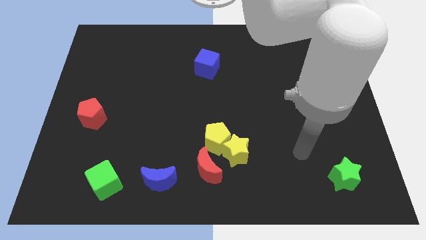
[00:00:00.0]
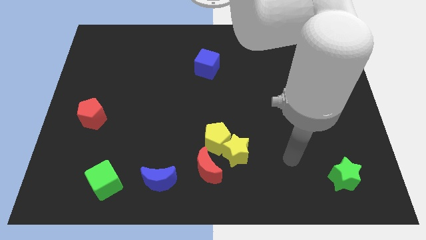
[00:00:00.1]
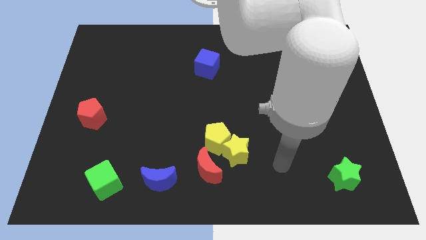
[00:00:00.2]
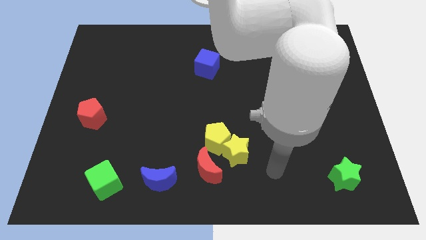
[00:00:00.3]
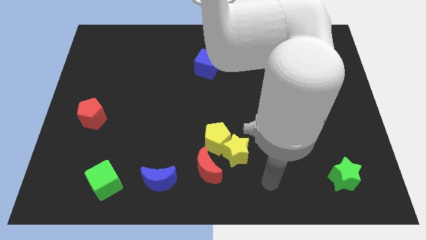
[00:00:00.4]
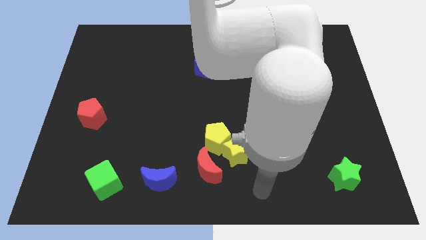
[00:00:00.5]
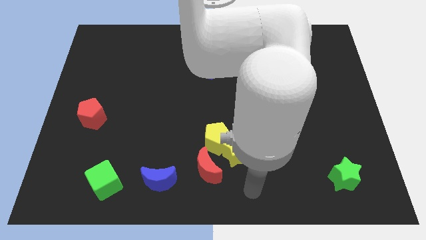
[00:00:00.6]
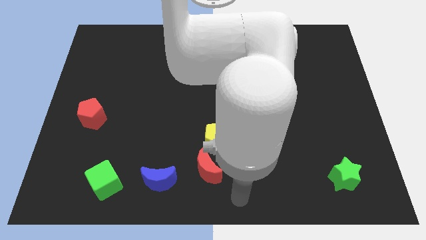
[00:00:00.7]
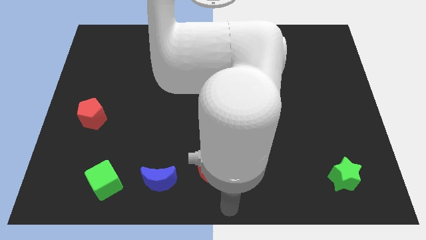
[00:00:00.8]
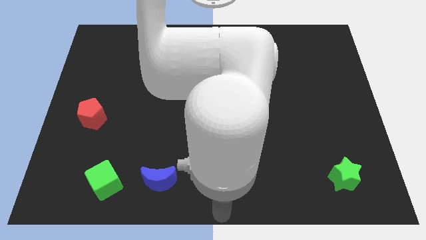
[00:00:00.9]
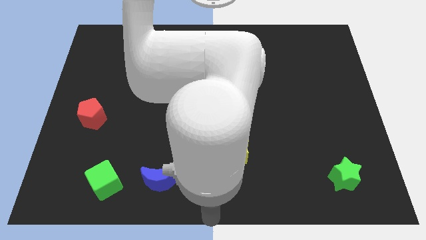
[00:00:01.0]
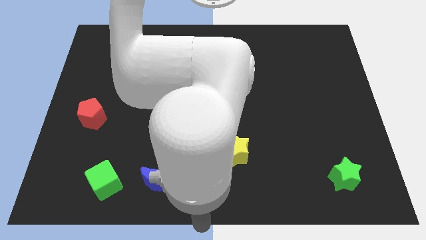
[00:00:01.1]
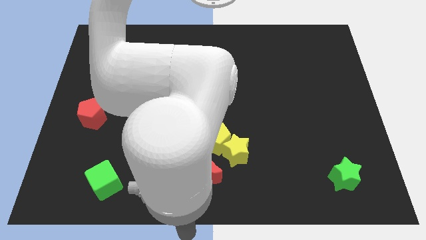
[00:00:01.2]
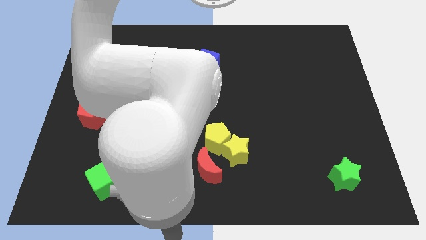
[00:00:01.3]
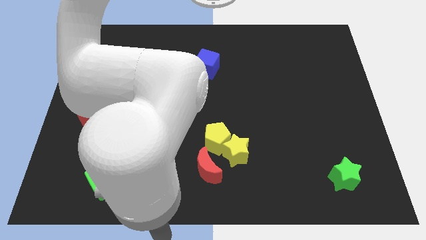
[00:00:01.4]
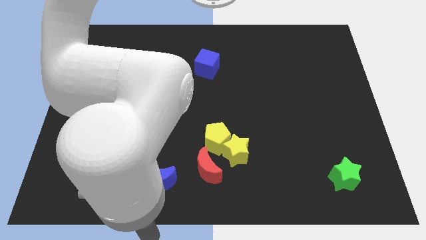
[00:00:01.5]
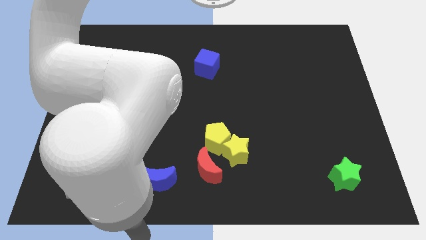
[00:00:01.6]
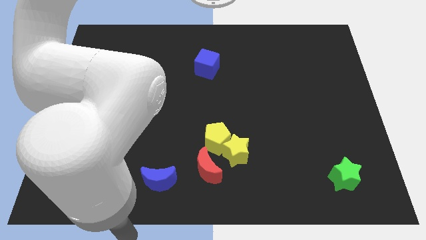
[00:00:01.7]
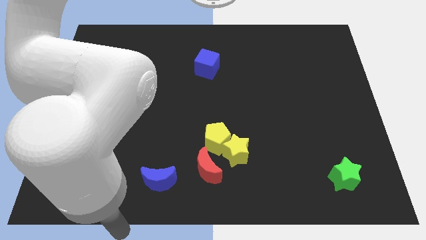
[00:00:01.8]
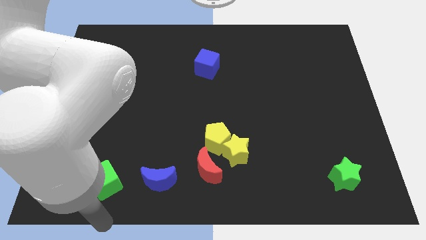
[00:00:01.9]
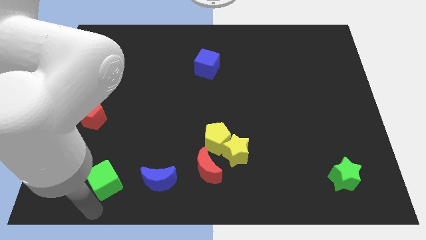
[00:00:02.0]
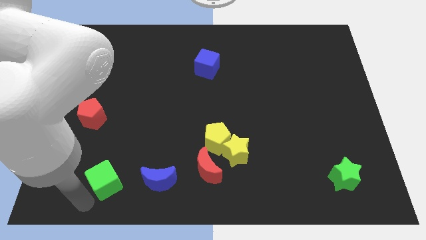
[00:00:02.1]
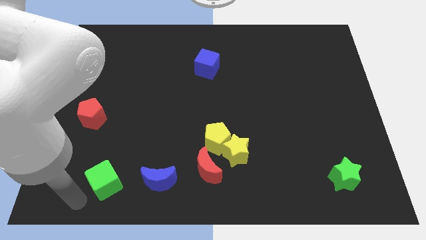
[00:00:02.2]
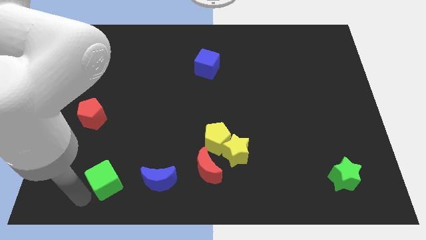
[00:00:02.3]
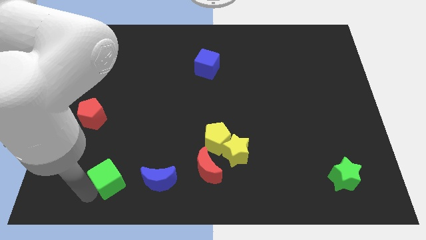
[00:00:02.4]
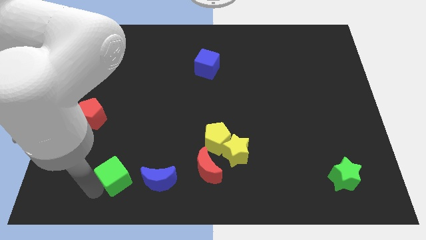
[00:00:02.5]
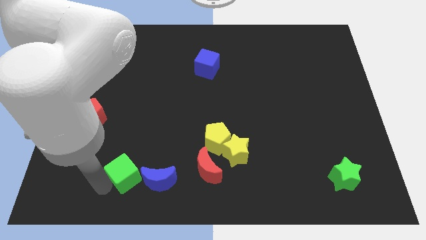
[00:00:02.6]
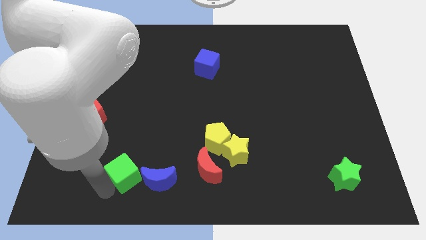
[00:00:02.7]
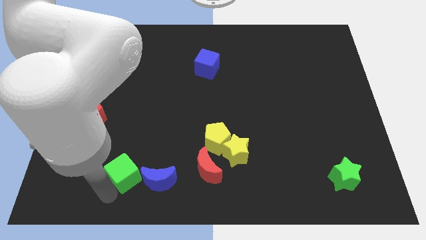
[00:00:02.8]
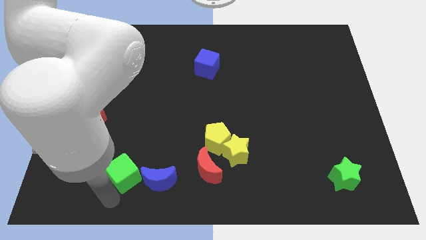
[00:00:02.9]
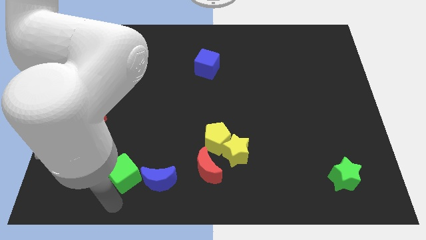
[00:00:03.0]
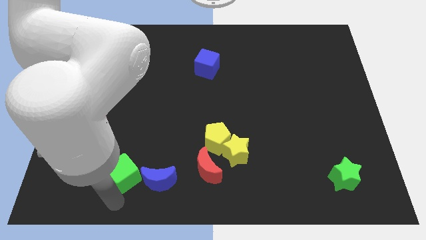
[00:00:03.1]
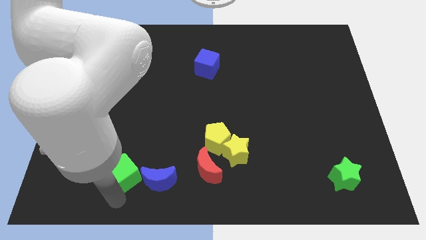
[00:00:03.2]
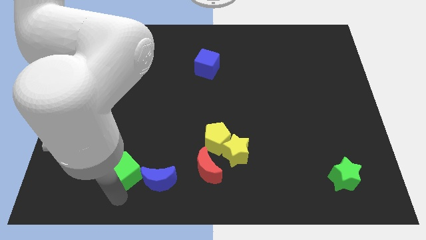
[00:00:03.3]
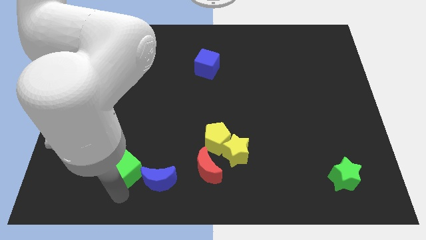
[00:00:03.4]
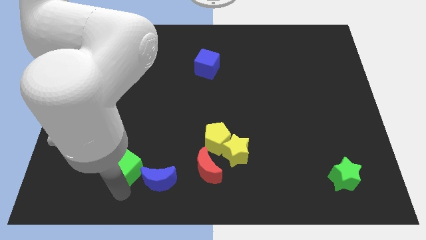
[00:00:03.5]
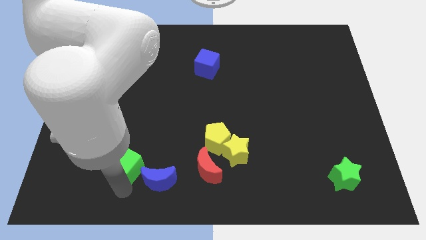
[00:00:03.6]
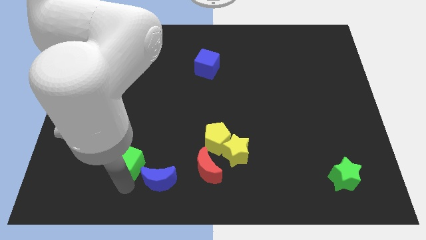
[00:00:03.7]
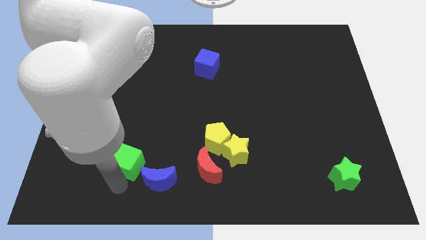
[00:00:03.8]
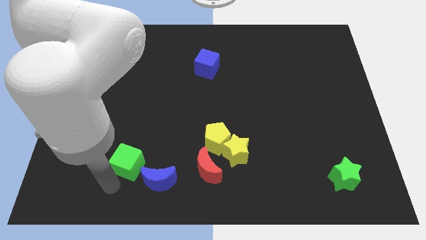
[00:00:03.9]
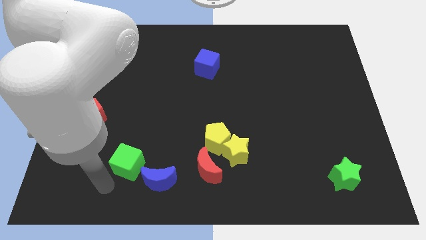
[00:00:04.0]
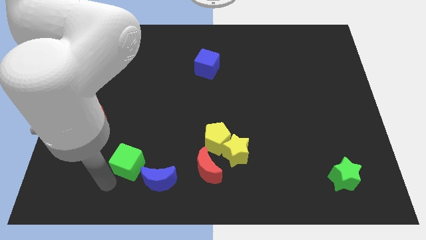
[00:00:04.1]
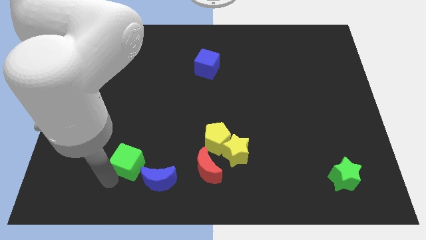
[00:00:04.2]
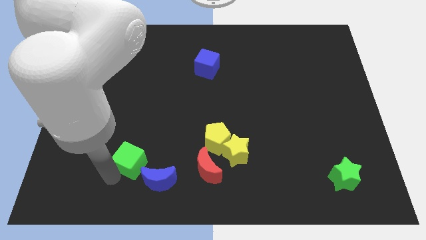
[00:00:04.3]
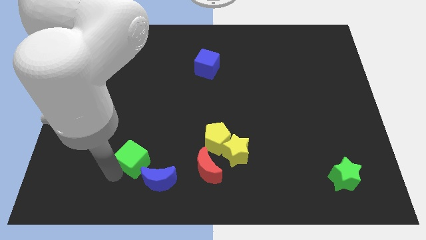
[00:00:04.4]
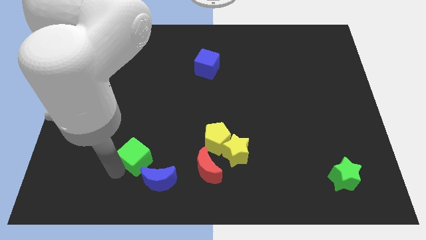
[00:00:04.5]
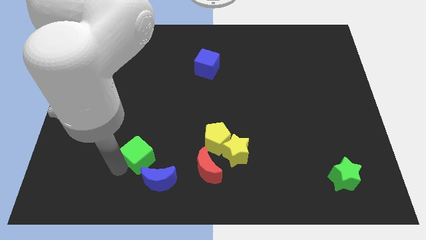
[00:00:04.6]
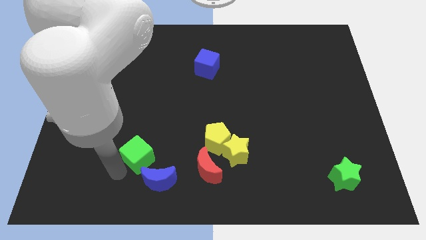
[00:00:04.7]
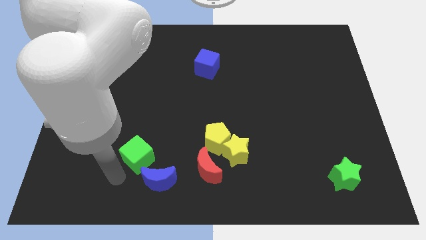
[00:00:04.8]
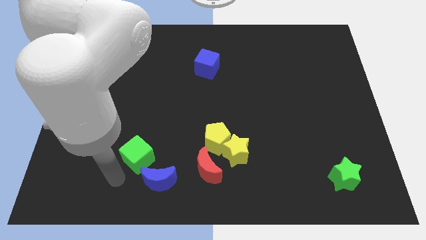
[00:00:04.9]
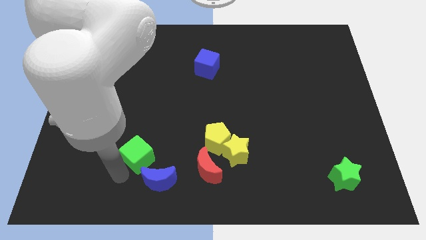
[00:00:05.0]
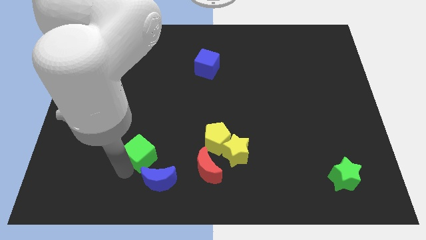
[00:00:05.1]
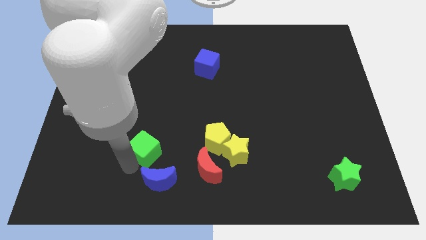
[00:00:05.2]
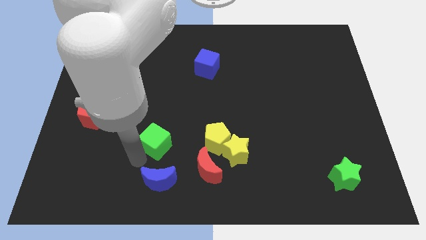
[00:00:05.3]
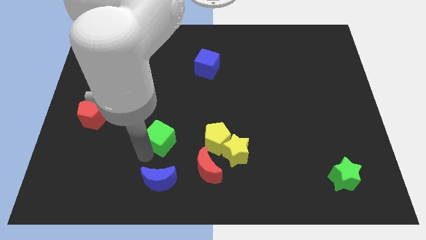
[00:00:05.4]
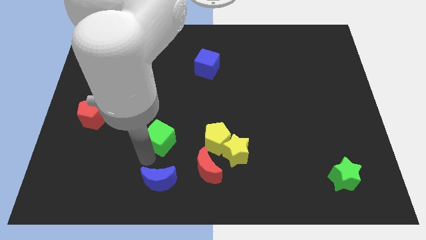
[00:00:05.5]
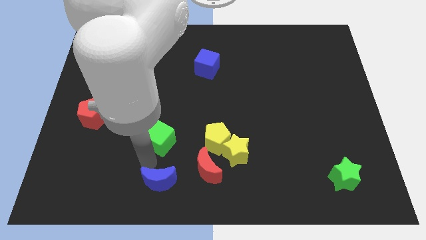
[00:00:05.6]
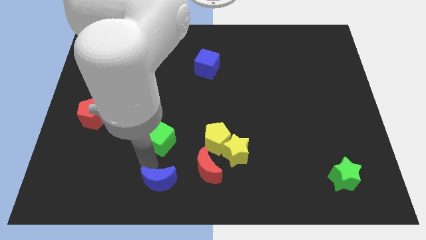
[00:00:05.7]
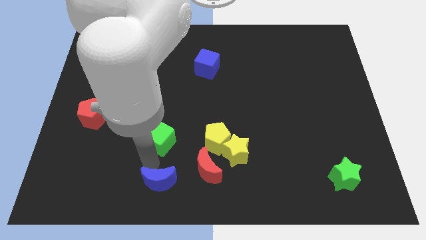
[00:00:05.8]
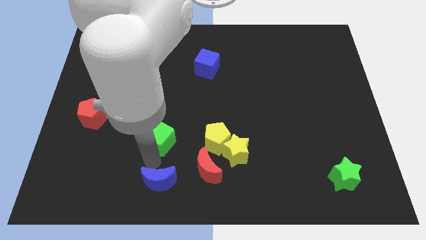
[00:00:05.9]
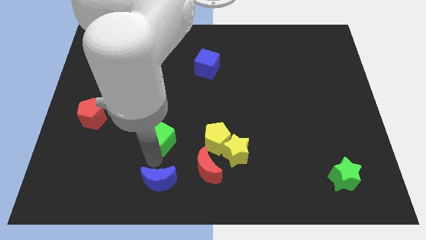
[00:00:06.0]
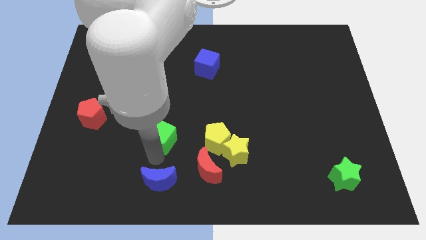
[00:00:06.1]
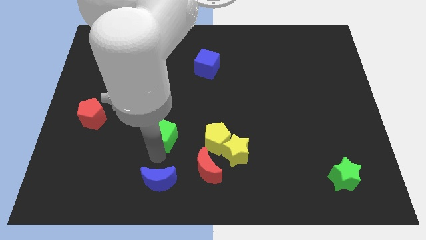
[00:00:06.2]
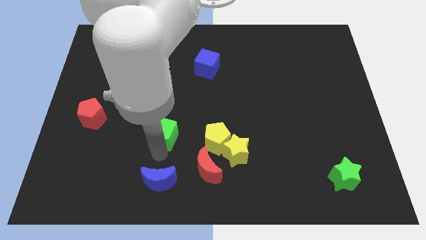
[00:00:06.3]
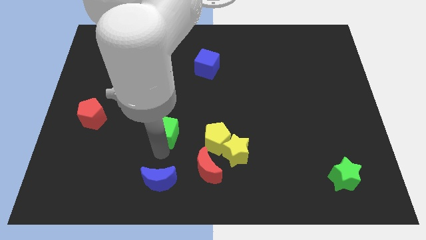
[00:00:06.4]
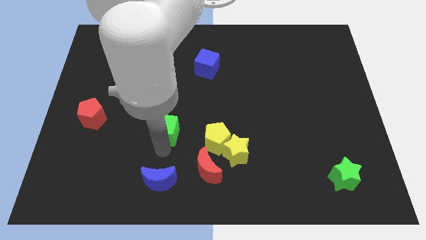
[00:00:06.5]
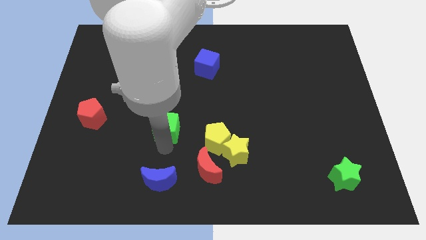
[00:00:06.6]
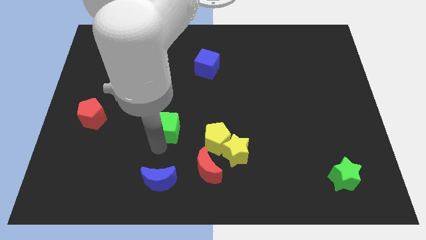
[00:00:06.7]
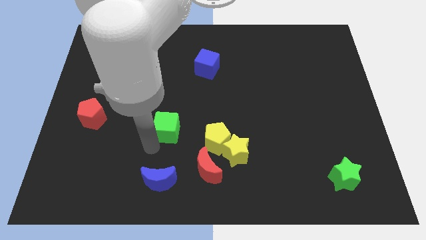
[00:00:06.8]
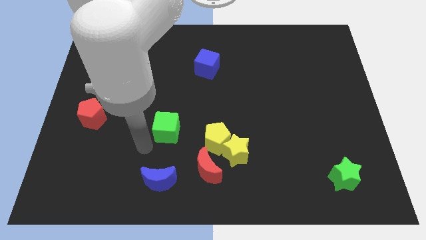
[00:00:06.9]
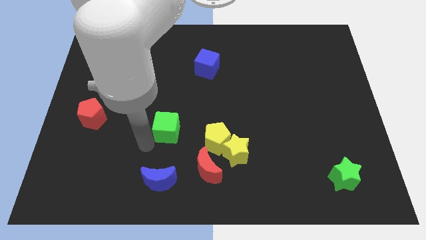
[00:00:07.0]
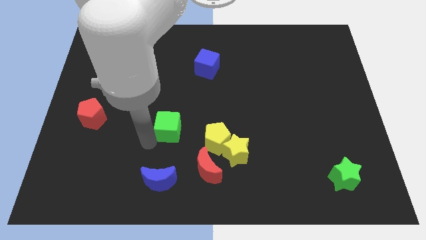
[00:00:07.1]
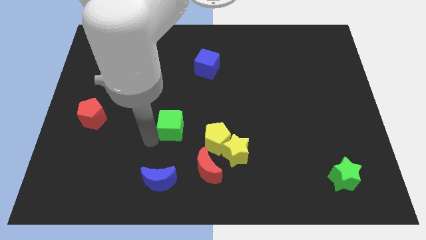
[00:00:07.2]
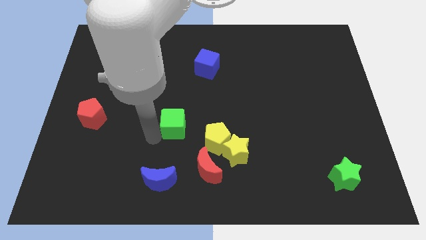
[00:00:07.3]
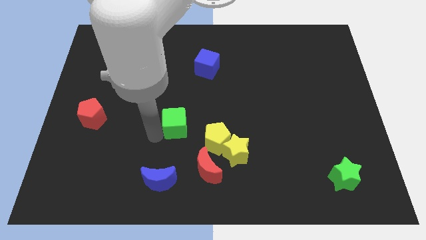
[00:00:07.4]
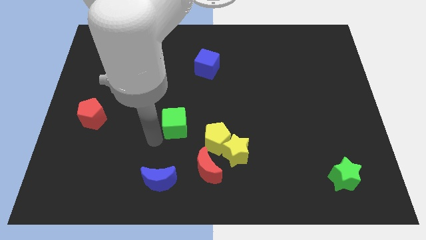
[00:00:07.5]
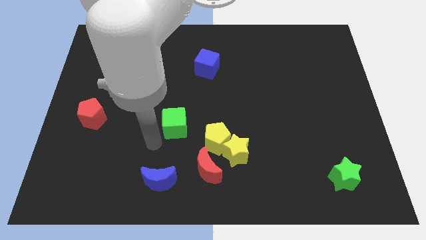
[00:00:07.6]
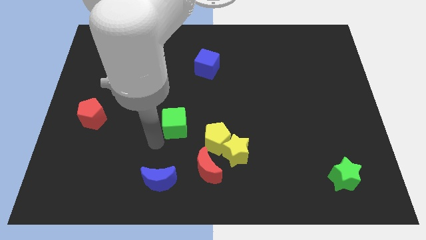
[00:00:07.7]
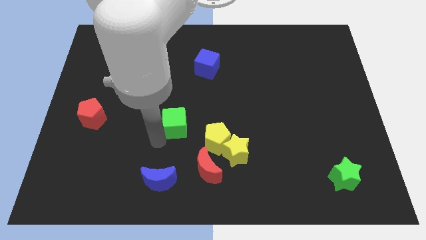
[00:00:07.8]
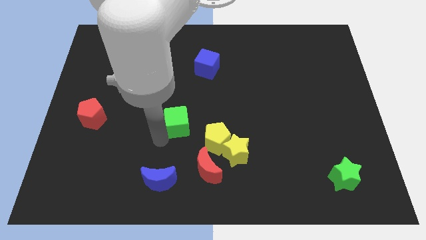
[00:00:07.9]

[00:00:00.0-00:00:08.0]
slide the green cube up and to the right diagonally
